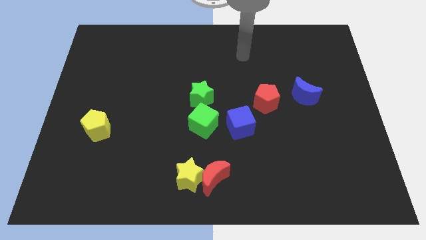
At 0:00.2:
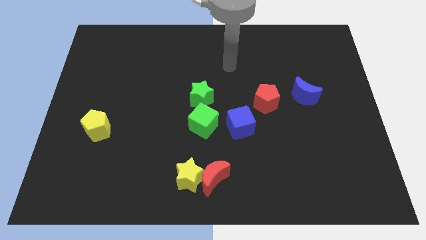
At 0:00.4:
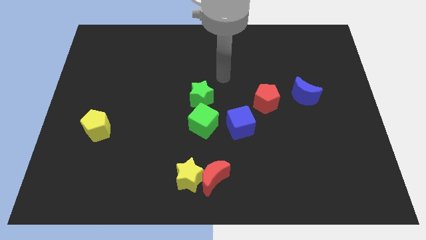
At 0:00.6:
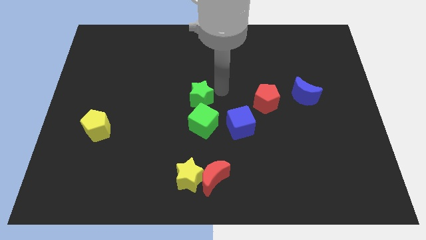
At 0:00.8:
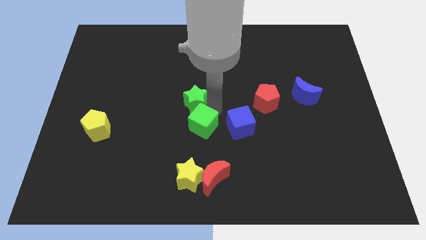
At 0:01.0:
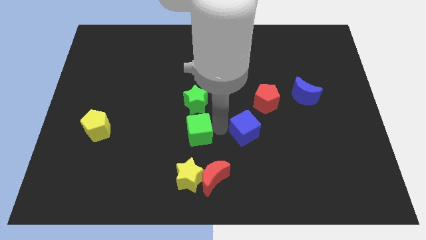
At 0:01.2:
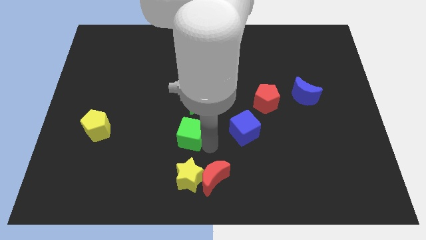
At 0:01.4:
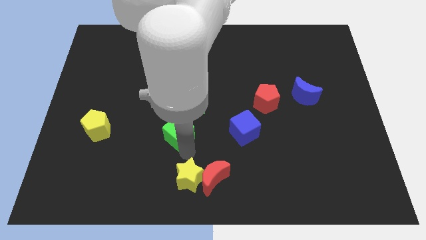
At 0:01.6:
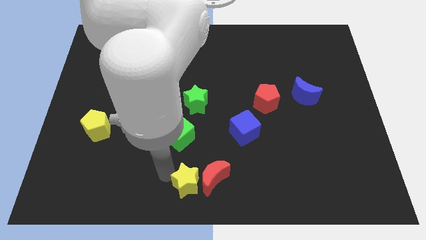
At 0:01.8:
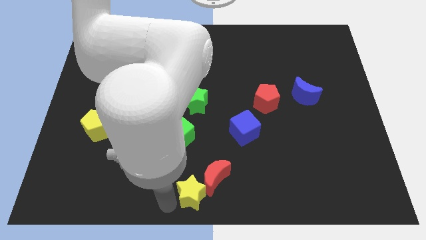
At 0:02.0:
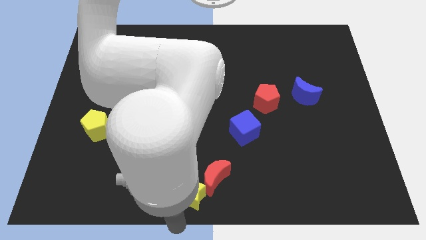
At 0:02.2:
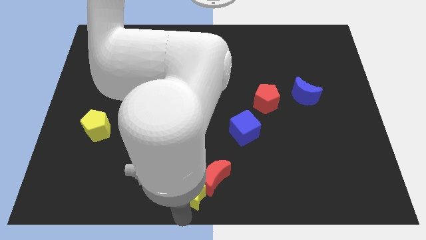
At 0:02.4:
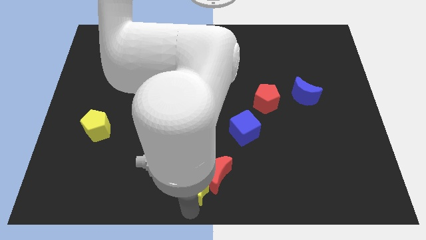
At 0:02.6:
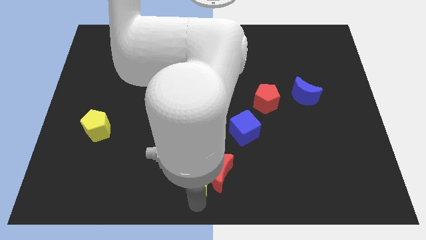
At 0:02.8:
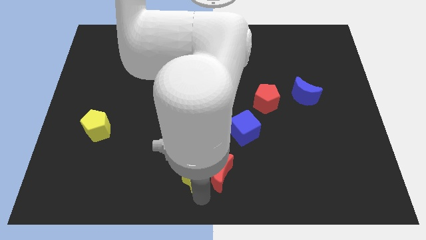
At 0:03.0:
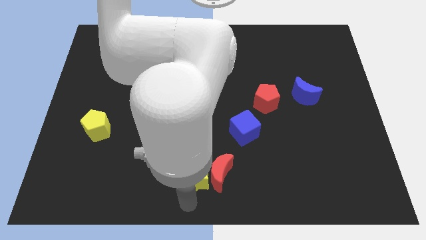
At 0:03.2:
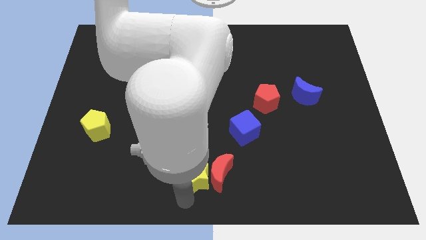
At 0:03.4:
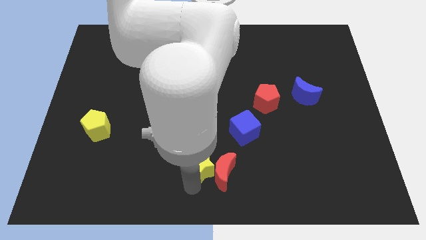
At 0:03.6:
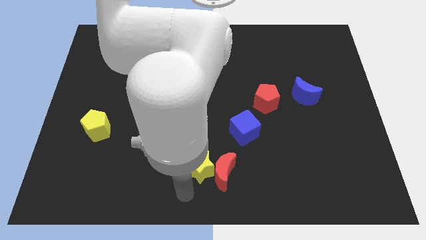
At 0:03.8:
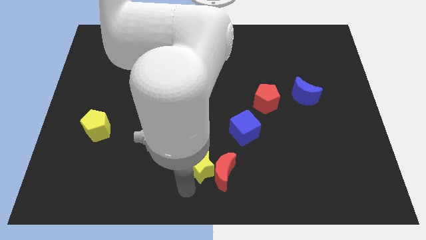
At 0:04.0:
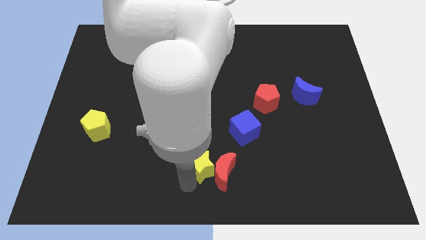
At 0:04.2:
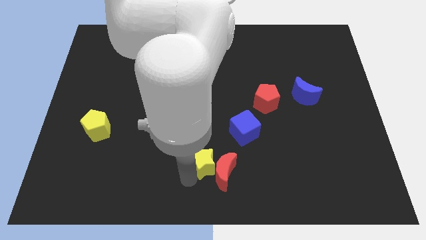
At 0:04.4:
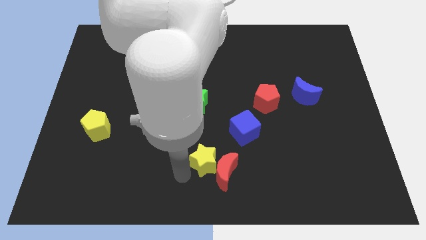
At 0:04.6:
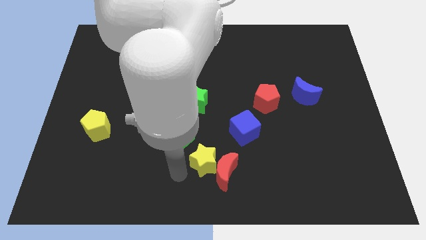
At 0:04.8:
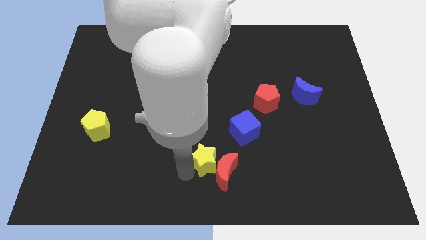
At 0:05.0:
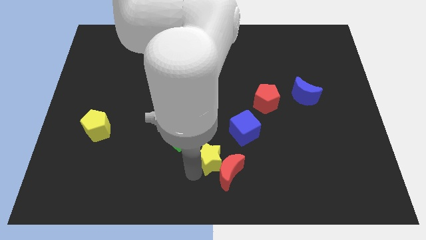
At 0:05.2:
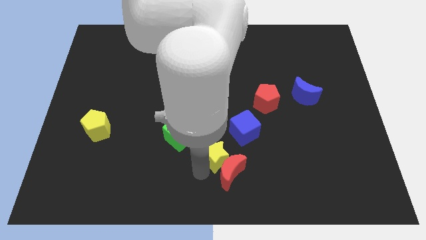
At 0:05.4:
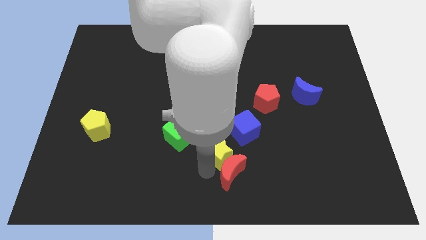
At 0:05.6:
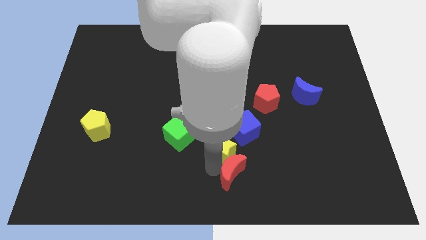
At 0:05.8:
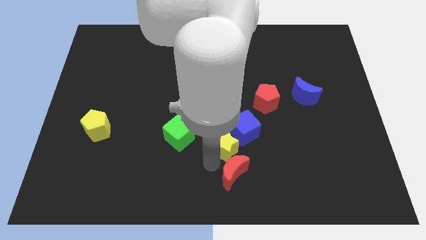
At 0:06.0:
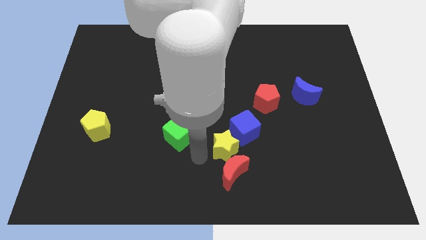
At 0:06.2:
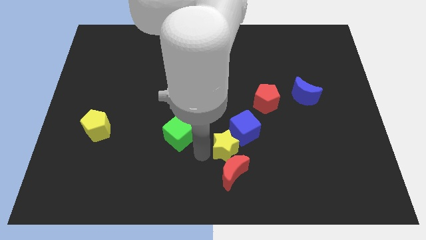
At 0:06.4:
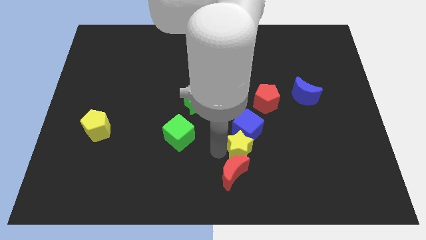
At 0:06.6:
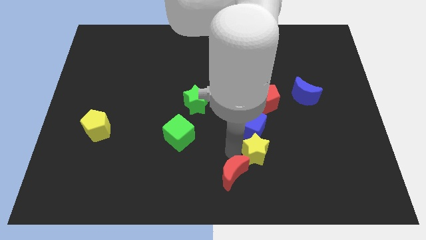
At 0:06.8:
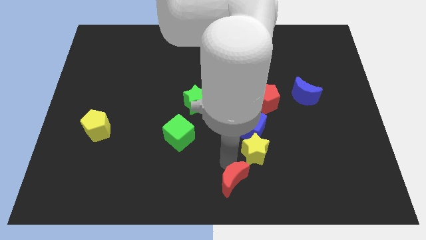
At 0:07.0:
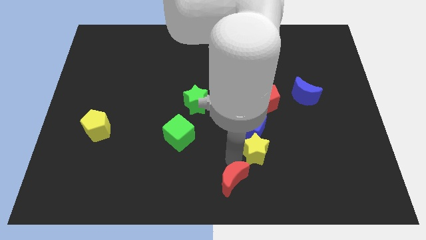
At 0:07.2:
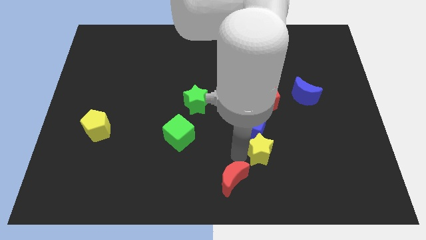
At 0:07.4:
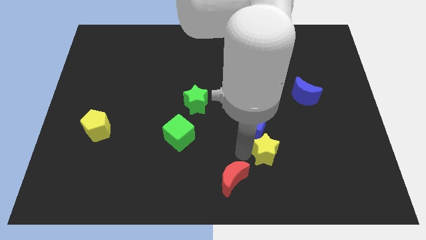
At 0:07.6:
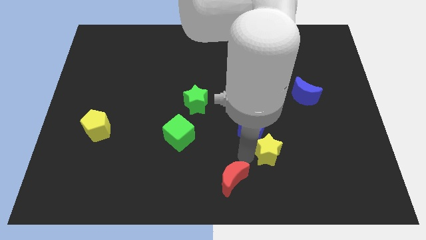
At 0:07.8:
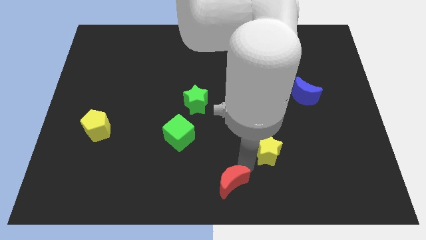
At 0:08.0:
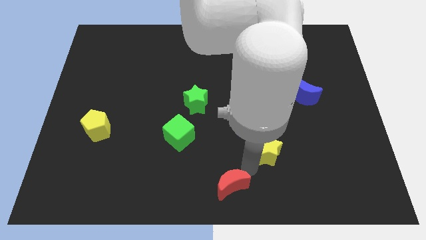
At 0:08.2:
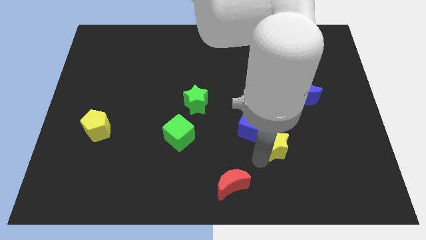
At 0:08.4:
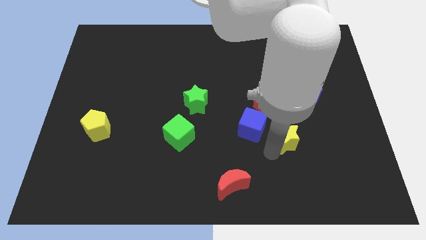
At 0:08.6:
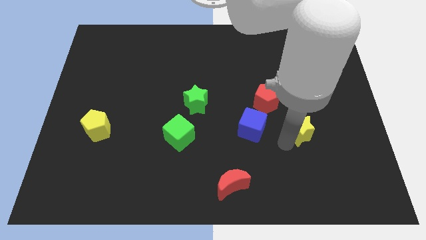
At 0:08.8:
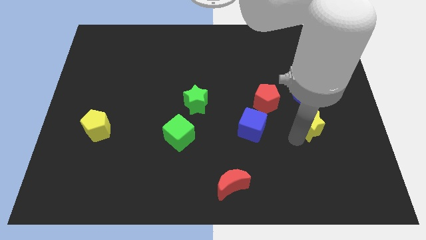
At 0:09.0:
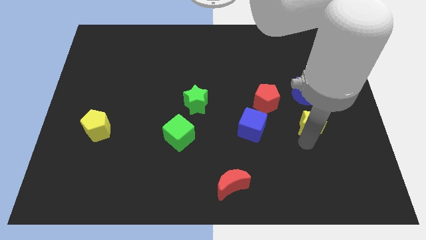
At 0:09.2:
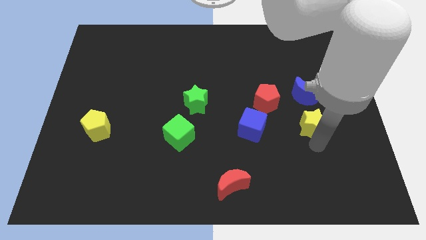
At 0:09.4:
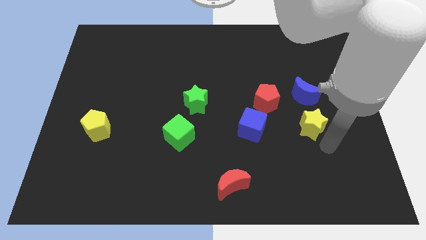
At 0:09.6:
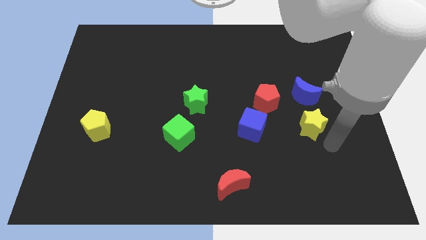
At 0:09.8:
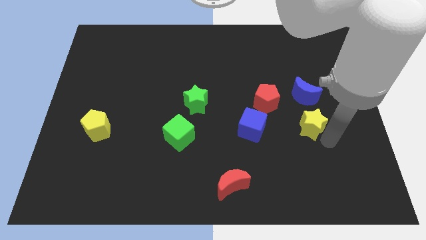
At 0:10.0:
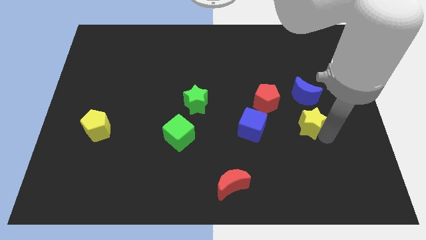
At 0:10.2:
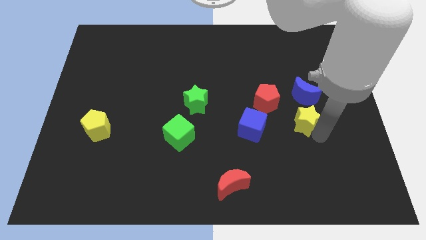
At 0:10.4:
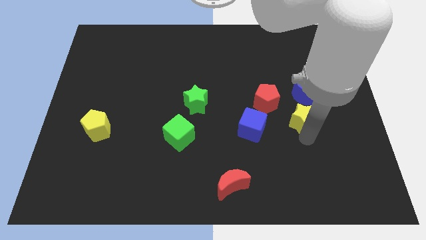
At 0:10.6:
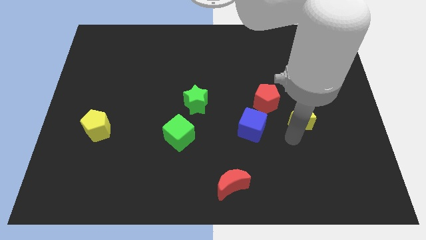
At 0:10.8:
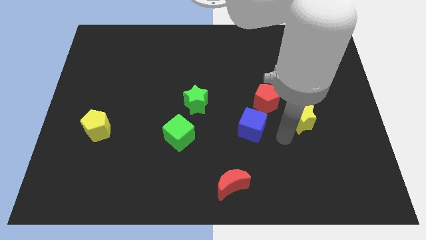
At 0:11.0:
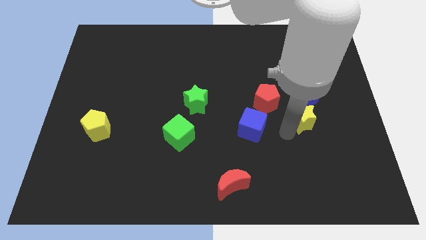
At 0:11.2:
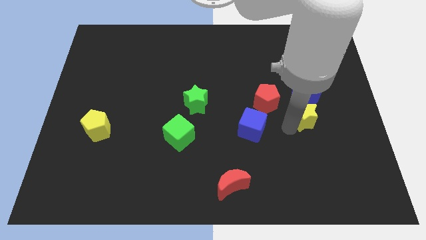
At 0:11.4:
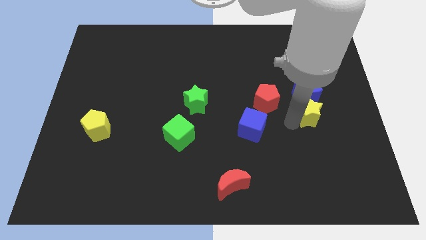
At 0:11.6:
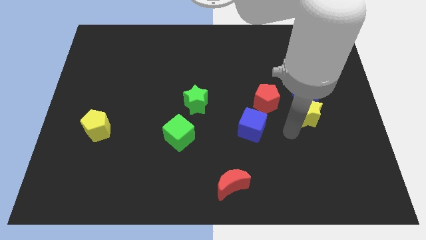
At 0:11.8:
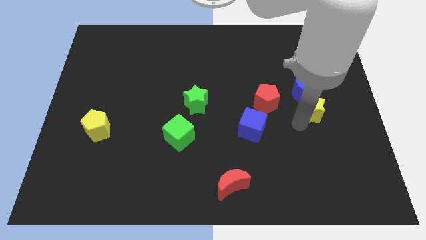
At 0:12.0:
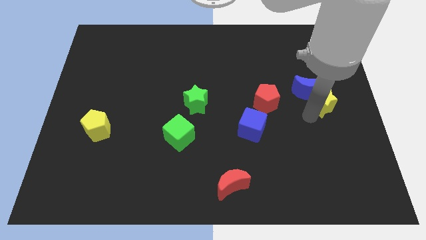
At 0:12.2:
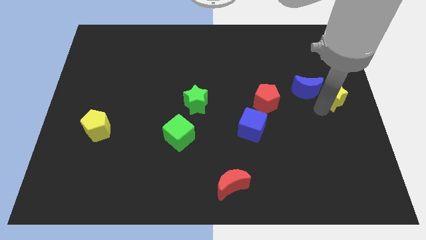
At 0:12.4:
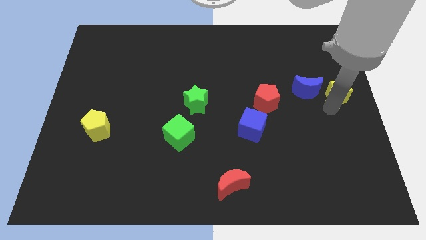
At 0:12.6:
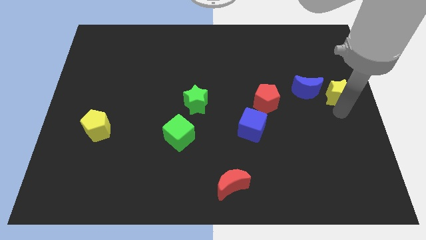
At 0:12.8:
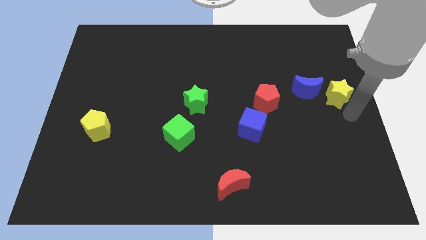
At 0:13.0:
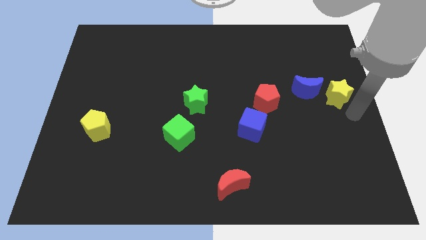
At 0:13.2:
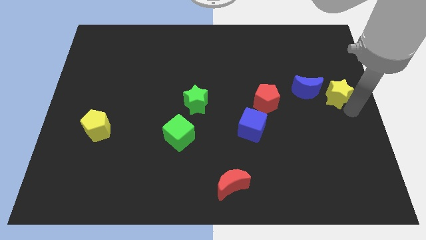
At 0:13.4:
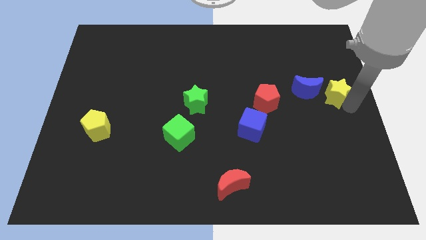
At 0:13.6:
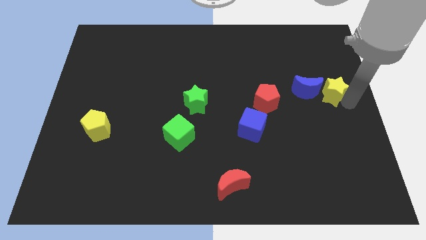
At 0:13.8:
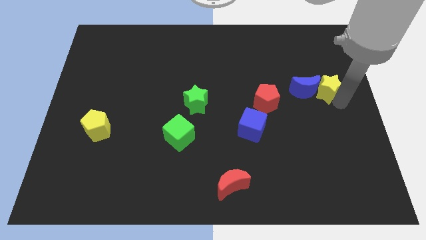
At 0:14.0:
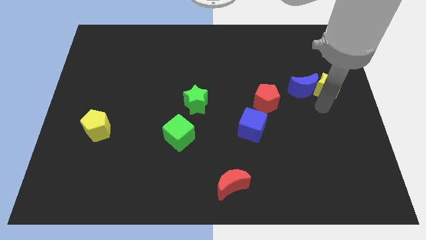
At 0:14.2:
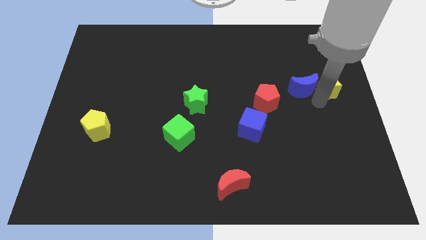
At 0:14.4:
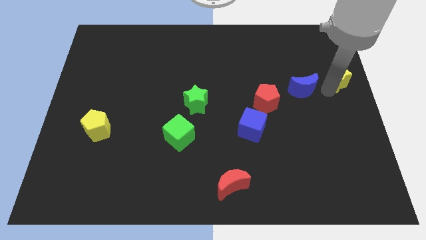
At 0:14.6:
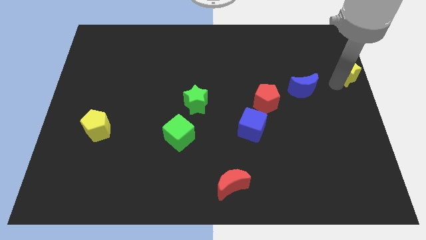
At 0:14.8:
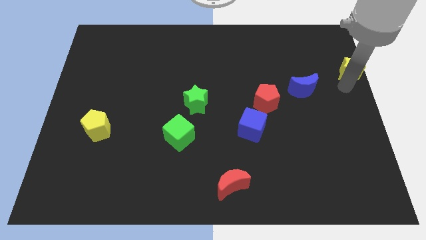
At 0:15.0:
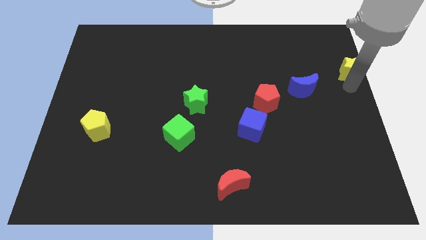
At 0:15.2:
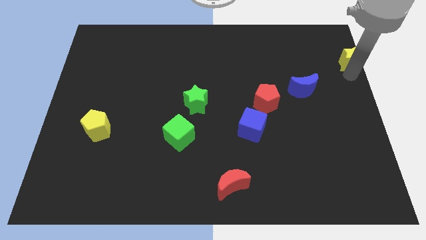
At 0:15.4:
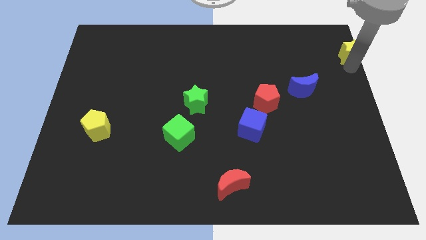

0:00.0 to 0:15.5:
push the yellow star to the top right
